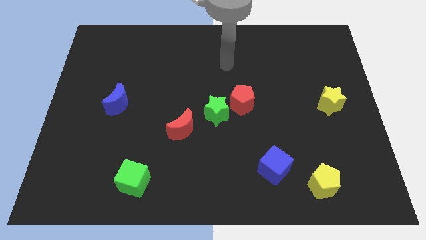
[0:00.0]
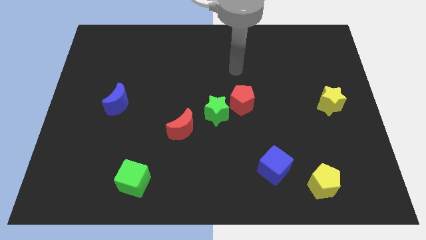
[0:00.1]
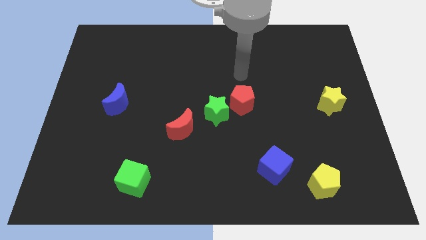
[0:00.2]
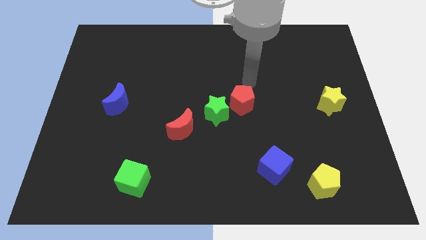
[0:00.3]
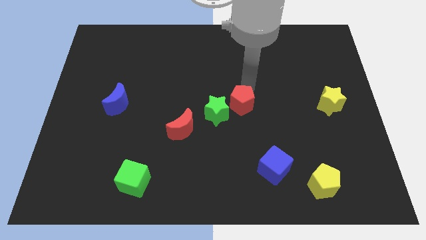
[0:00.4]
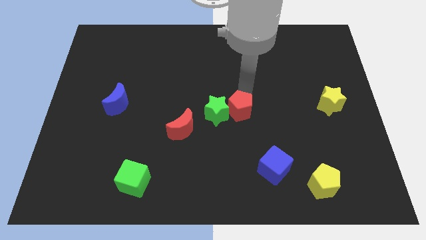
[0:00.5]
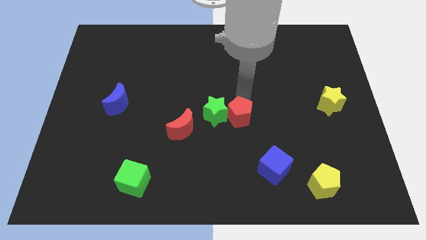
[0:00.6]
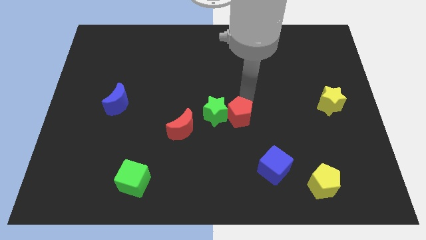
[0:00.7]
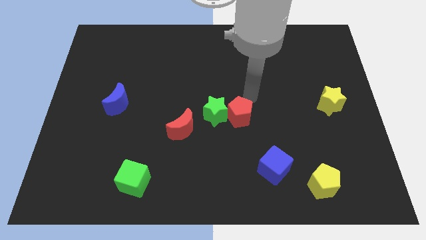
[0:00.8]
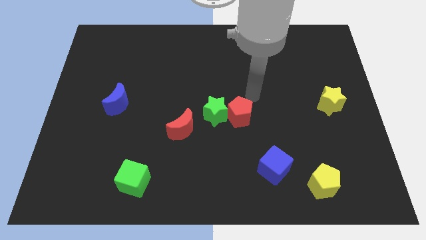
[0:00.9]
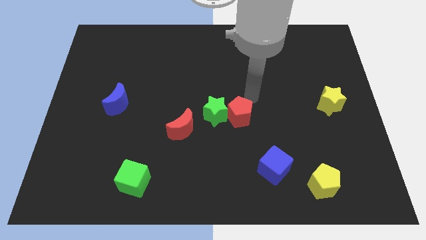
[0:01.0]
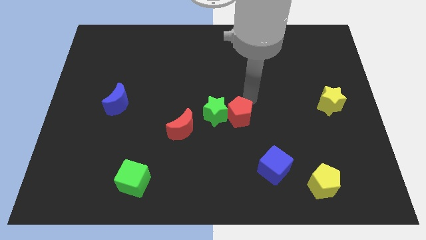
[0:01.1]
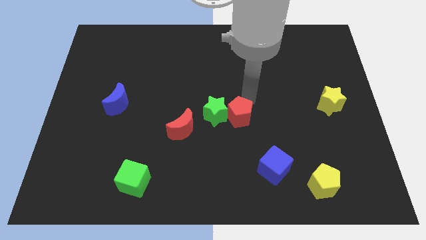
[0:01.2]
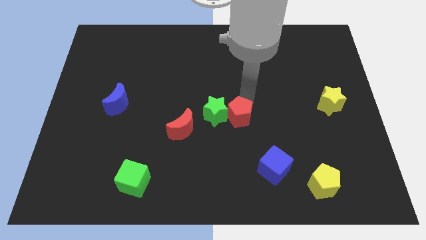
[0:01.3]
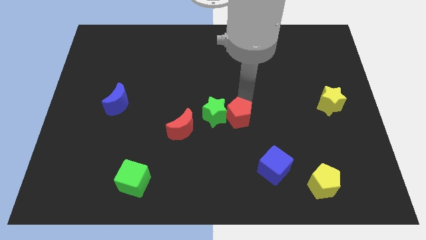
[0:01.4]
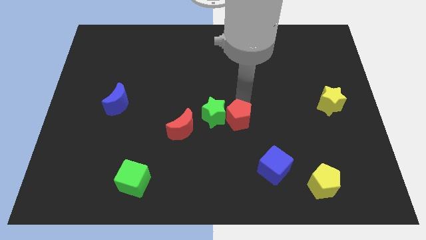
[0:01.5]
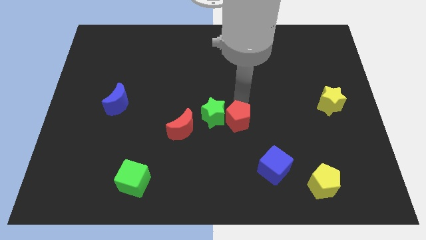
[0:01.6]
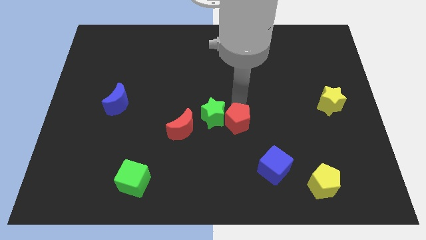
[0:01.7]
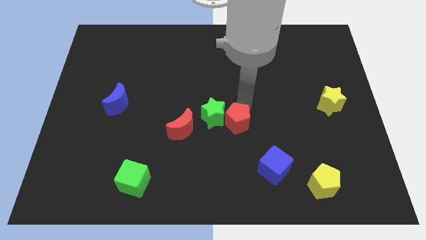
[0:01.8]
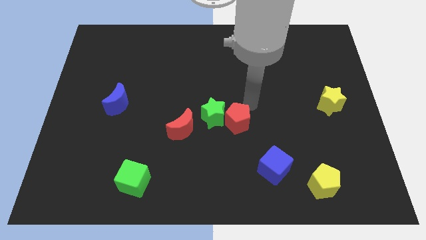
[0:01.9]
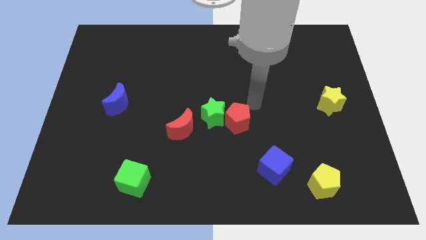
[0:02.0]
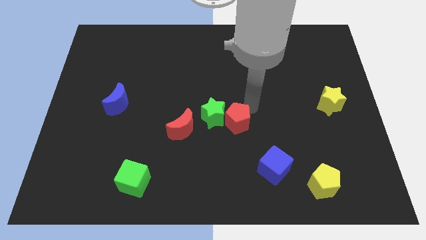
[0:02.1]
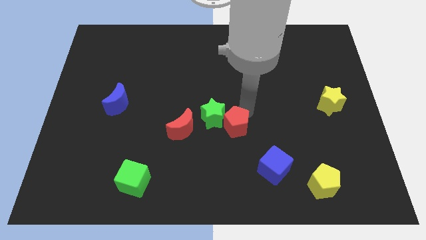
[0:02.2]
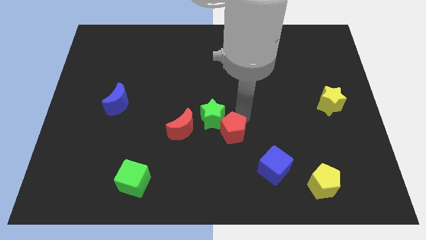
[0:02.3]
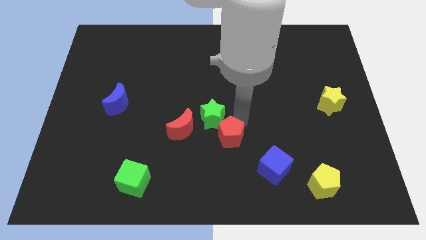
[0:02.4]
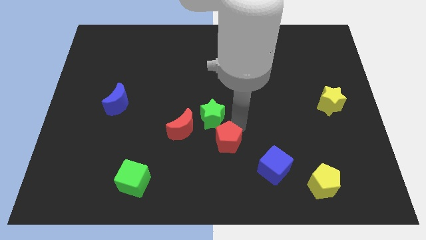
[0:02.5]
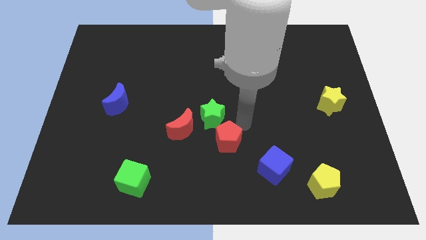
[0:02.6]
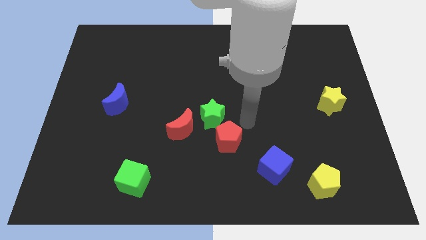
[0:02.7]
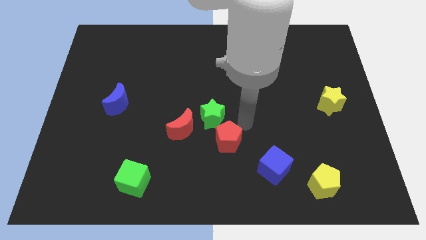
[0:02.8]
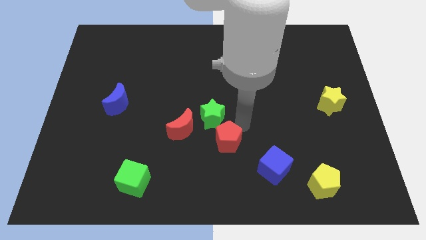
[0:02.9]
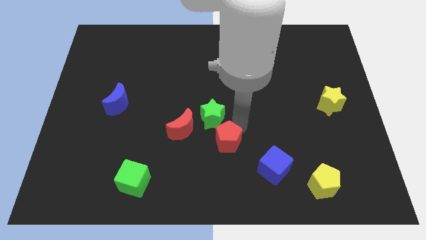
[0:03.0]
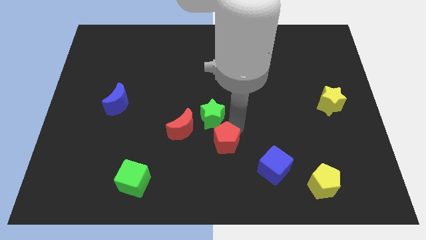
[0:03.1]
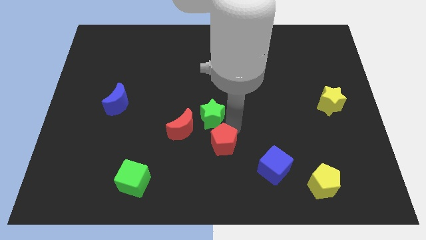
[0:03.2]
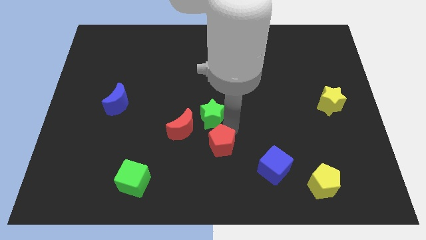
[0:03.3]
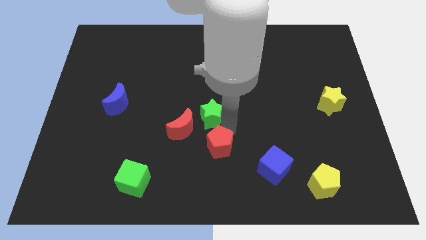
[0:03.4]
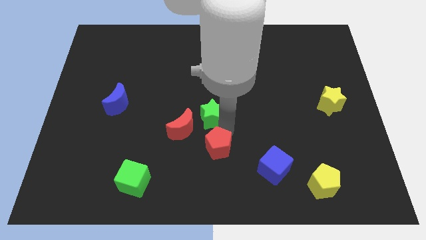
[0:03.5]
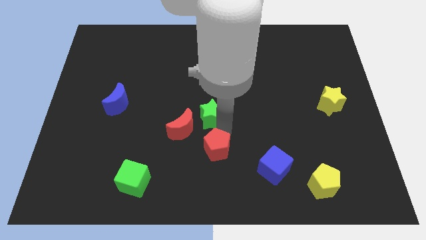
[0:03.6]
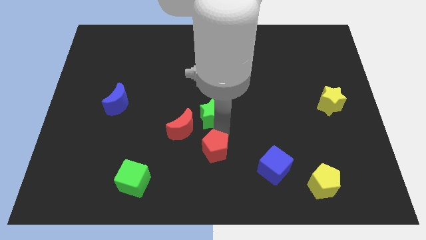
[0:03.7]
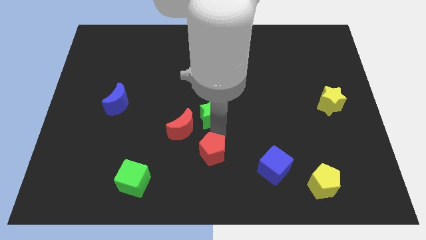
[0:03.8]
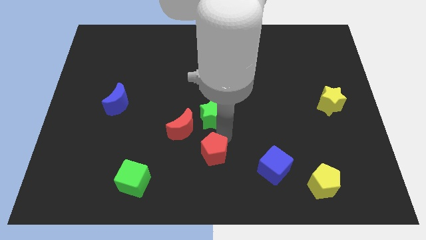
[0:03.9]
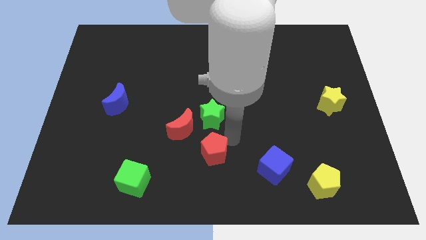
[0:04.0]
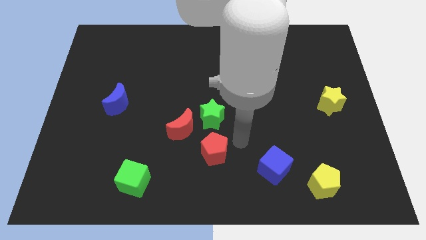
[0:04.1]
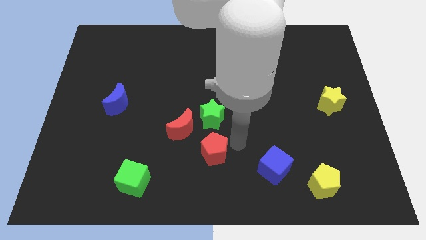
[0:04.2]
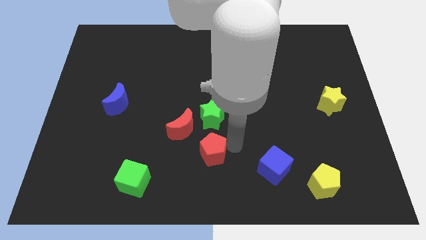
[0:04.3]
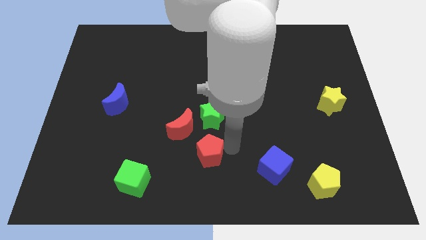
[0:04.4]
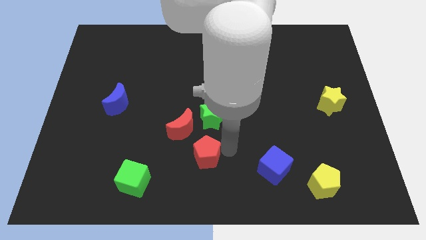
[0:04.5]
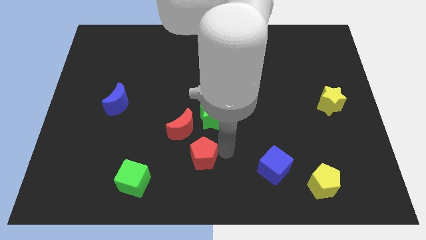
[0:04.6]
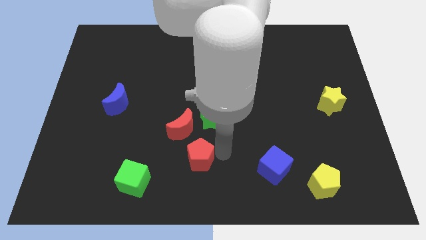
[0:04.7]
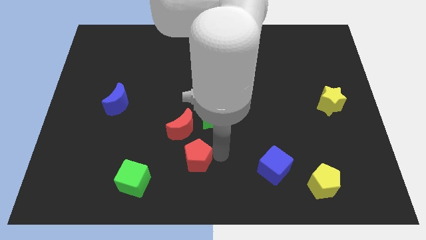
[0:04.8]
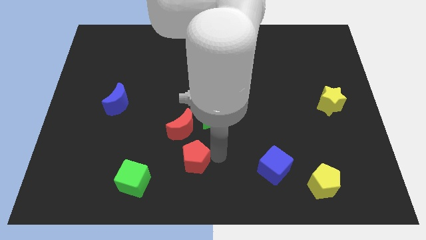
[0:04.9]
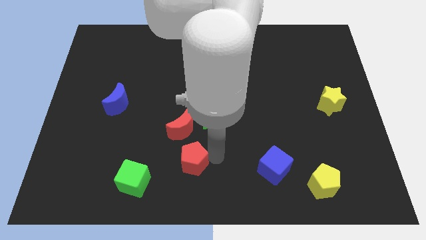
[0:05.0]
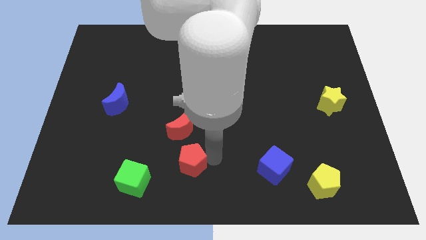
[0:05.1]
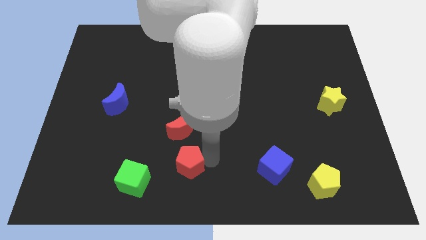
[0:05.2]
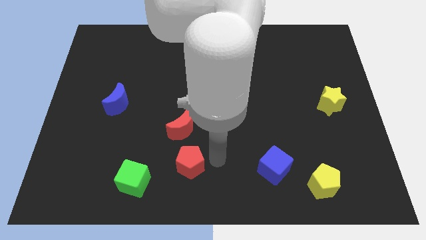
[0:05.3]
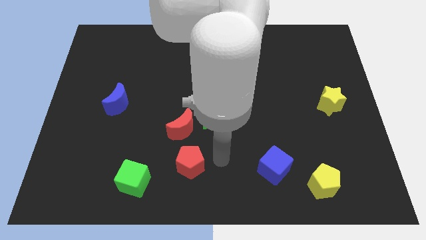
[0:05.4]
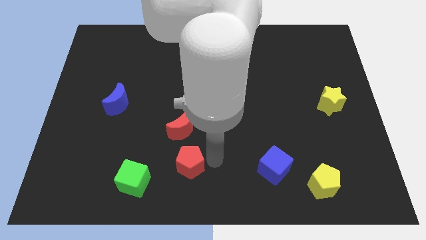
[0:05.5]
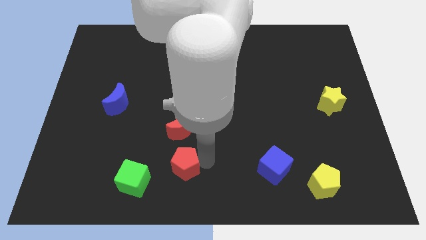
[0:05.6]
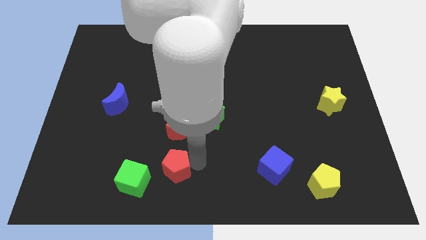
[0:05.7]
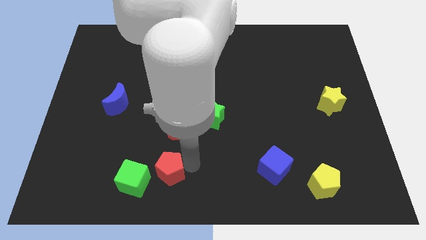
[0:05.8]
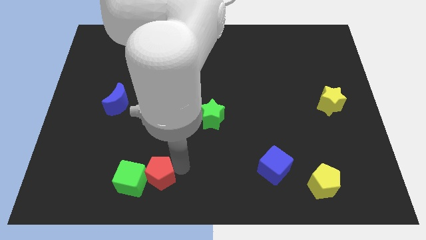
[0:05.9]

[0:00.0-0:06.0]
slide the red pentagon to the green cube

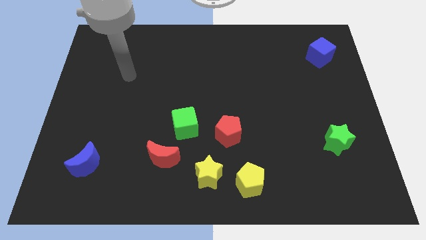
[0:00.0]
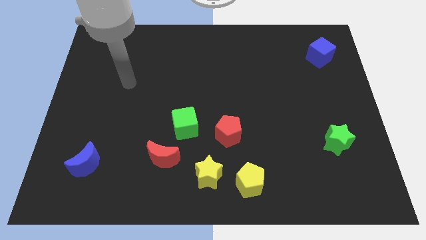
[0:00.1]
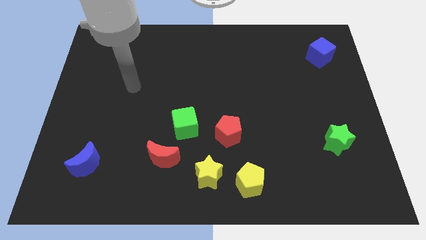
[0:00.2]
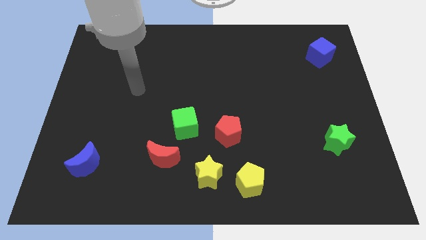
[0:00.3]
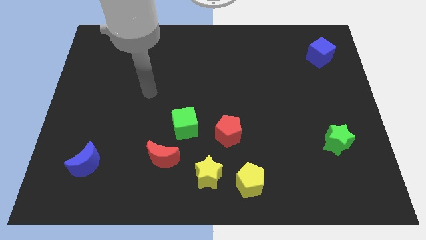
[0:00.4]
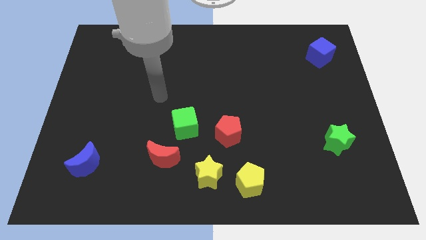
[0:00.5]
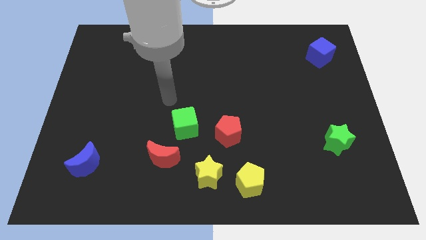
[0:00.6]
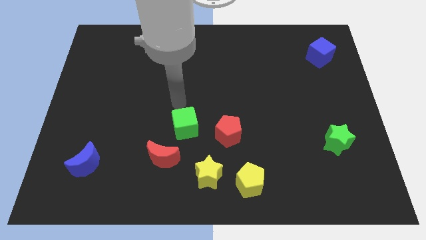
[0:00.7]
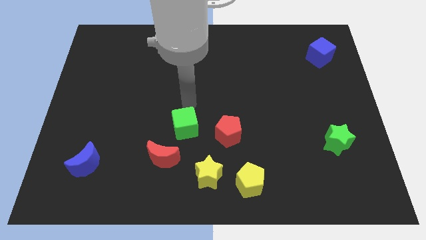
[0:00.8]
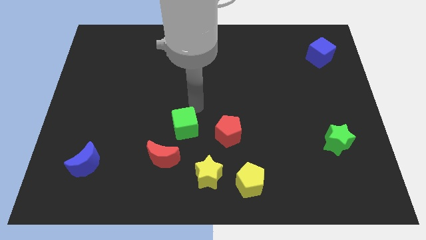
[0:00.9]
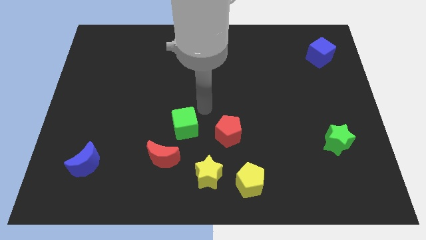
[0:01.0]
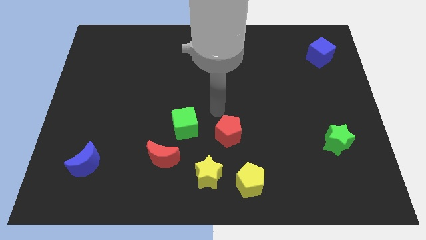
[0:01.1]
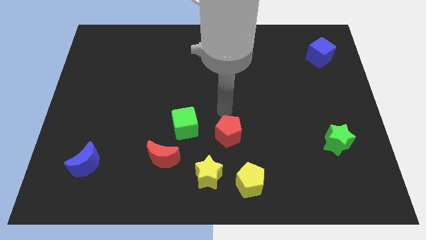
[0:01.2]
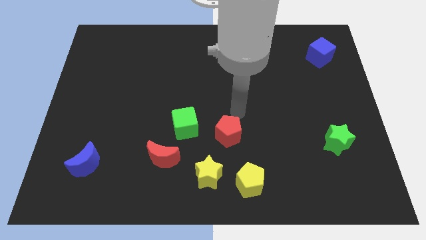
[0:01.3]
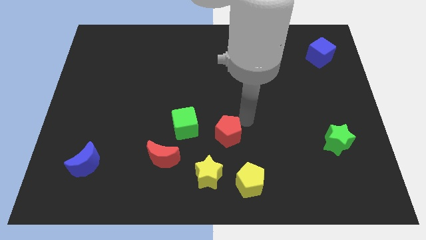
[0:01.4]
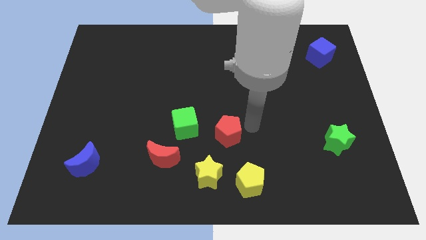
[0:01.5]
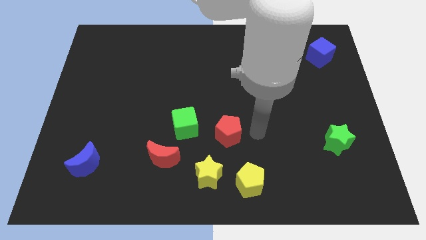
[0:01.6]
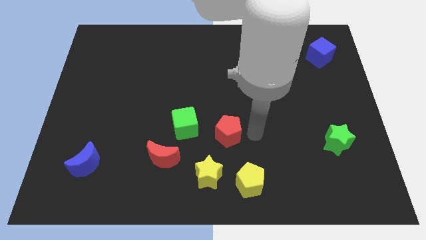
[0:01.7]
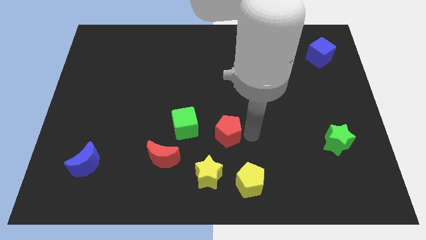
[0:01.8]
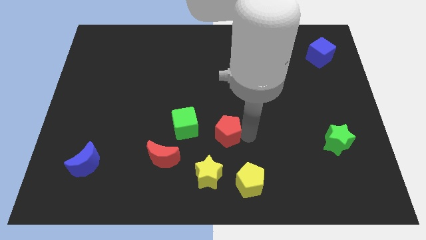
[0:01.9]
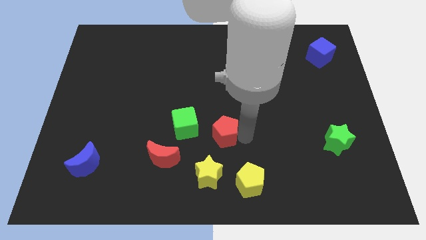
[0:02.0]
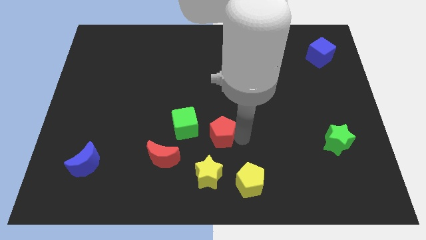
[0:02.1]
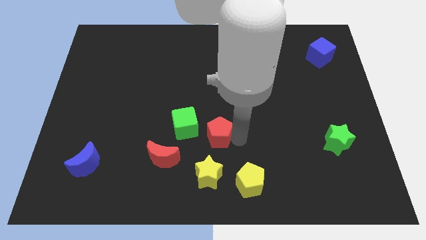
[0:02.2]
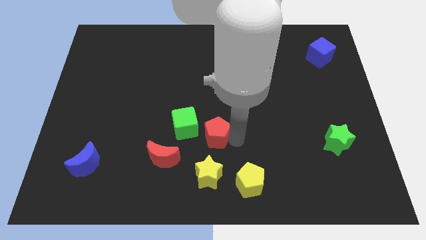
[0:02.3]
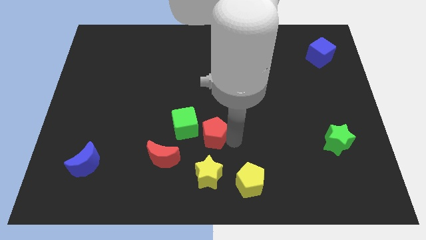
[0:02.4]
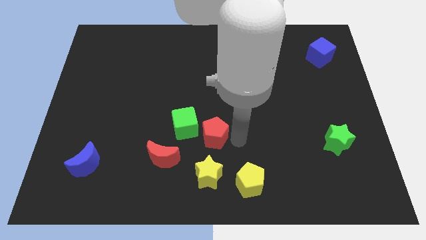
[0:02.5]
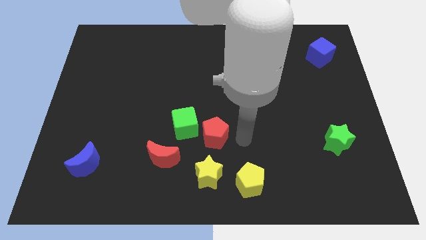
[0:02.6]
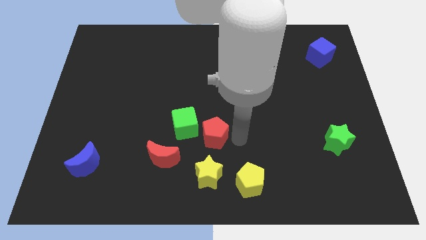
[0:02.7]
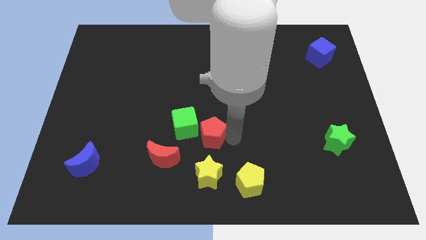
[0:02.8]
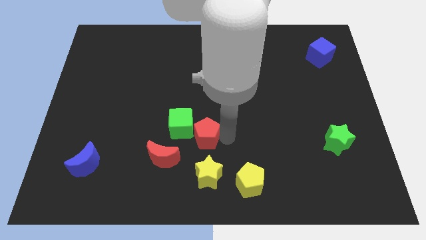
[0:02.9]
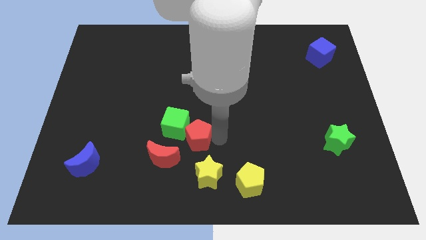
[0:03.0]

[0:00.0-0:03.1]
push the red pentagon to the green cube
